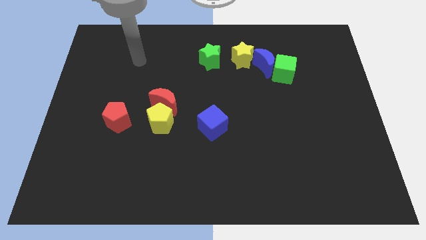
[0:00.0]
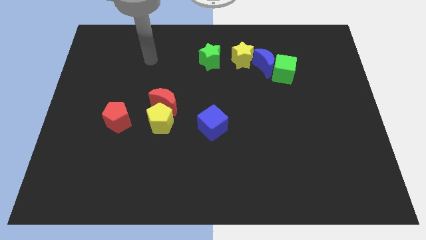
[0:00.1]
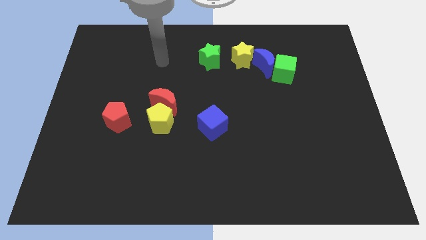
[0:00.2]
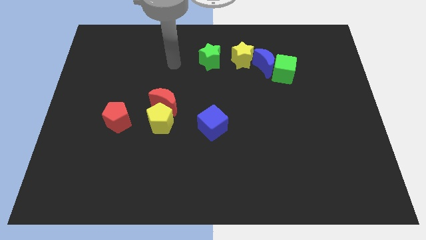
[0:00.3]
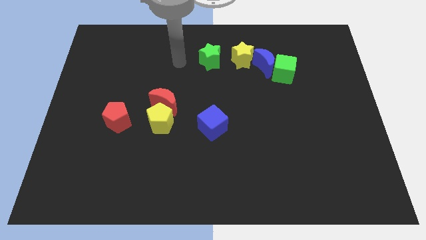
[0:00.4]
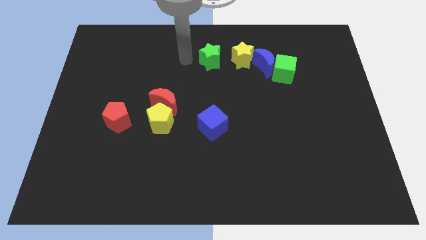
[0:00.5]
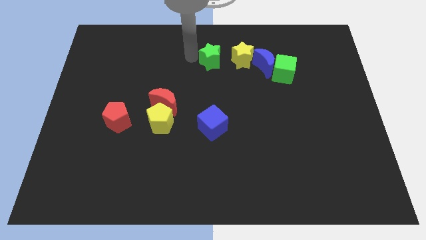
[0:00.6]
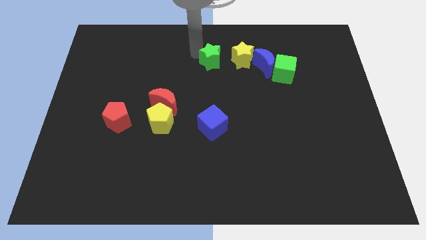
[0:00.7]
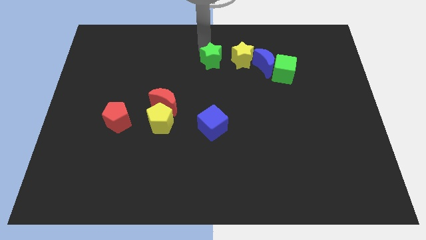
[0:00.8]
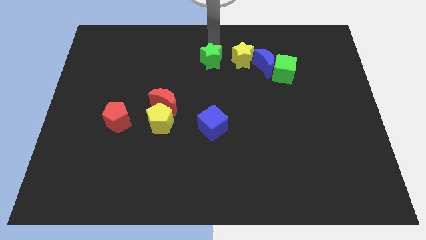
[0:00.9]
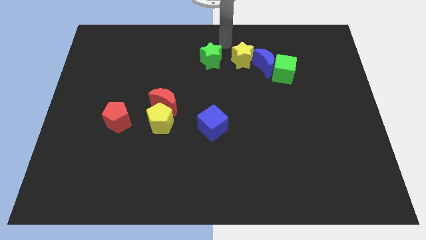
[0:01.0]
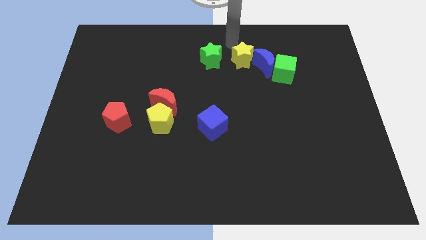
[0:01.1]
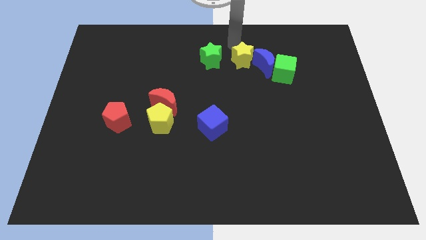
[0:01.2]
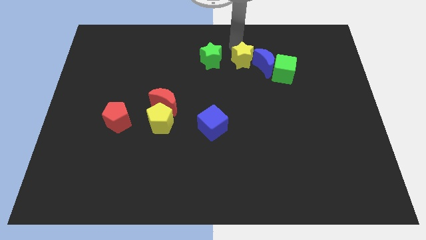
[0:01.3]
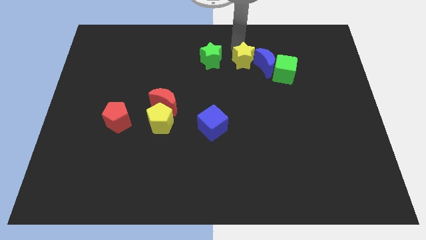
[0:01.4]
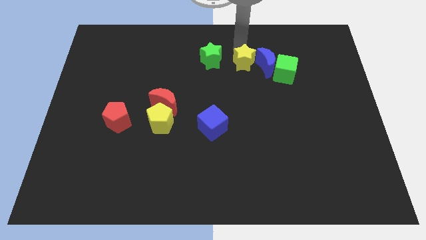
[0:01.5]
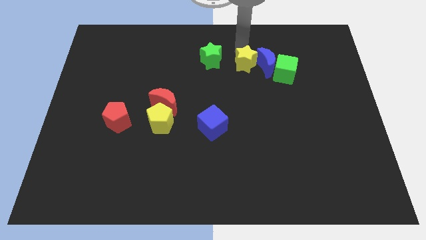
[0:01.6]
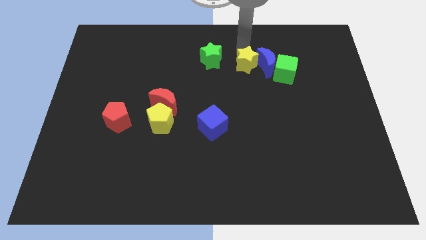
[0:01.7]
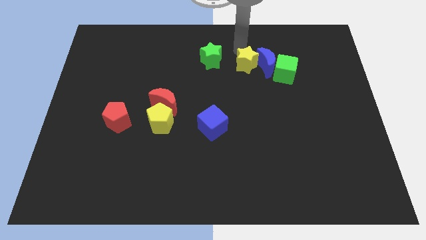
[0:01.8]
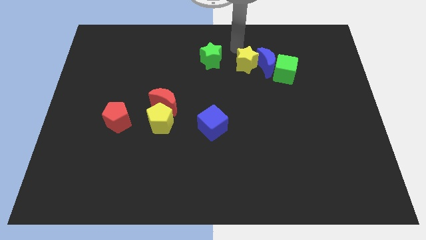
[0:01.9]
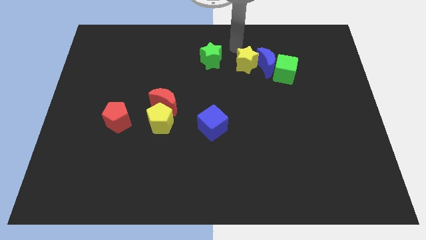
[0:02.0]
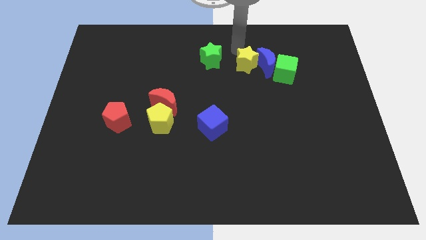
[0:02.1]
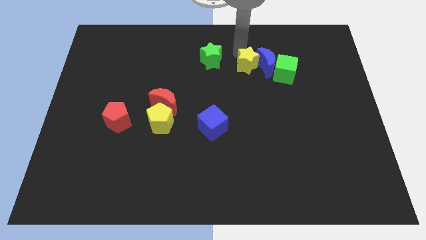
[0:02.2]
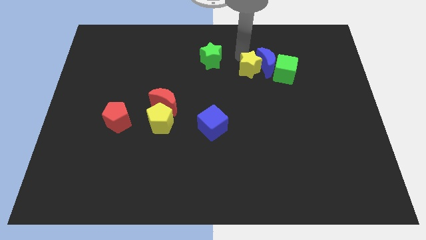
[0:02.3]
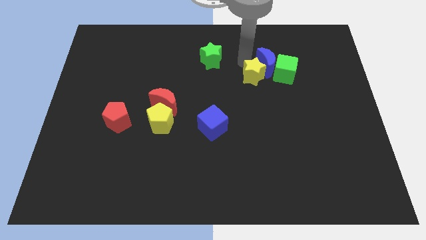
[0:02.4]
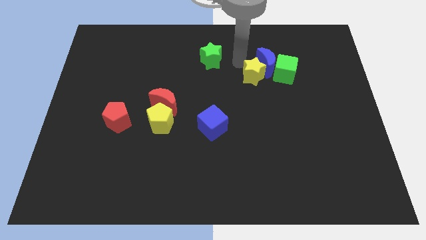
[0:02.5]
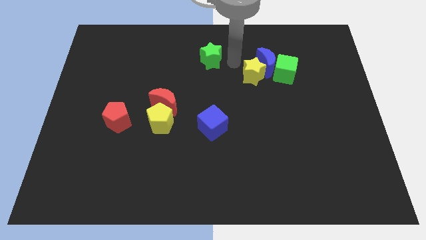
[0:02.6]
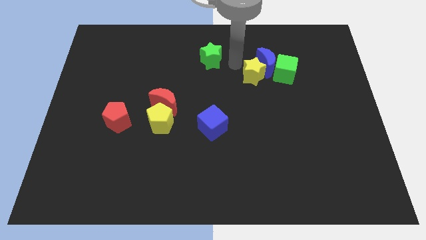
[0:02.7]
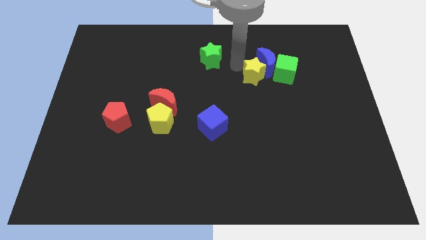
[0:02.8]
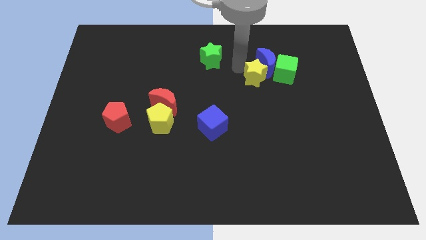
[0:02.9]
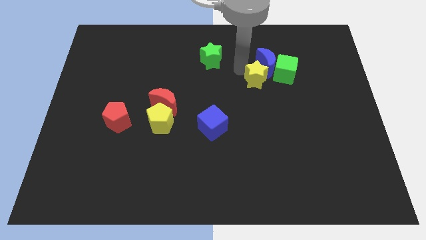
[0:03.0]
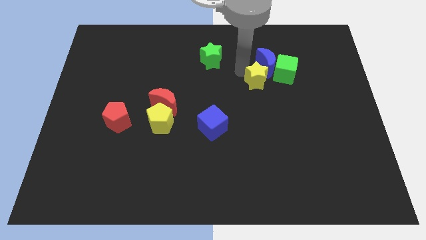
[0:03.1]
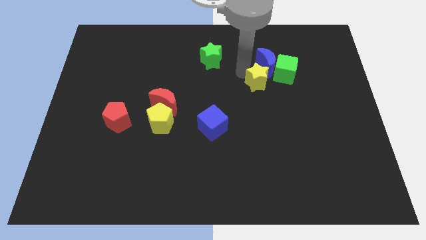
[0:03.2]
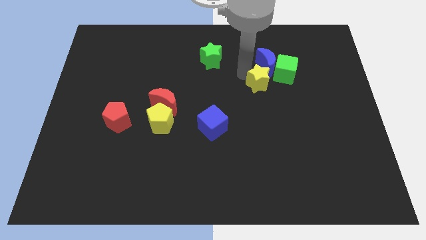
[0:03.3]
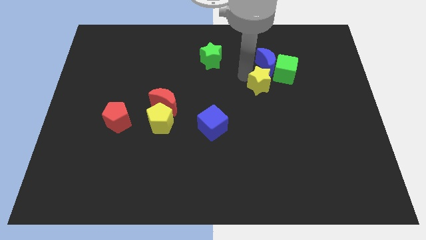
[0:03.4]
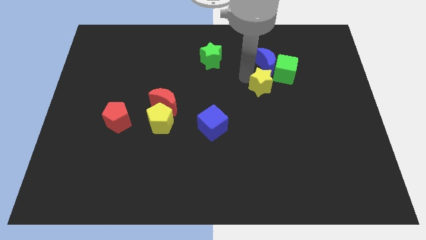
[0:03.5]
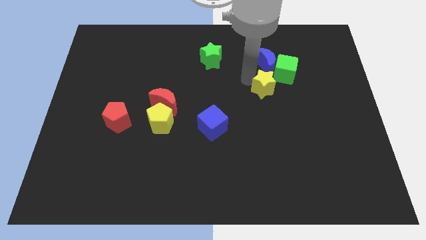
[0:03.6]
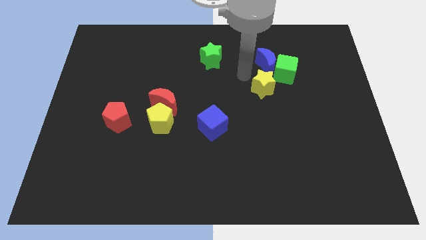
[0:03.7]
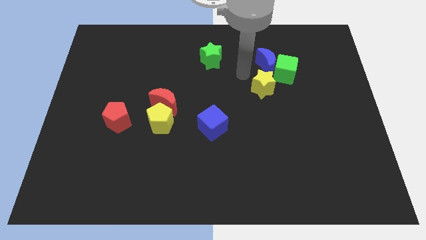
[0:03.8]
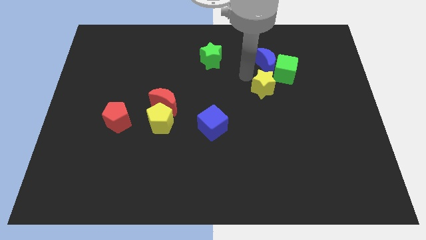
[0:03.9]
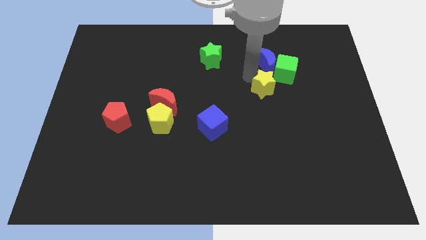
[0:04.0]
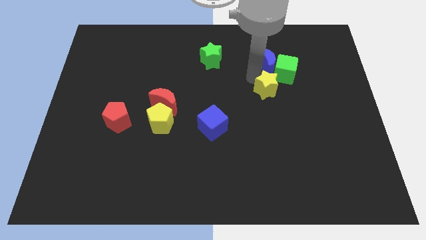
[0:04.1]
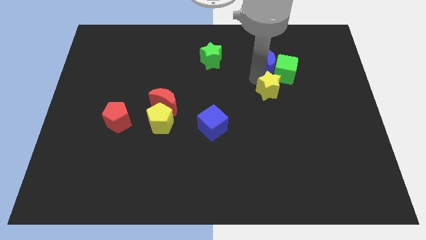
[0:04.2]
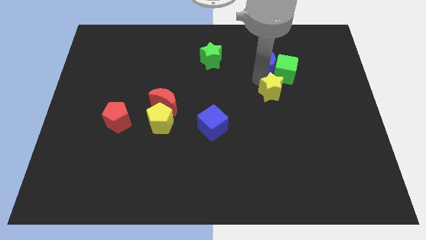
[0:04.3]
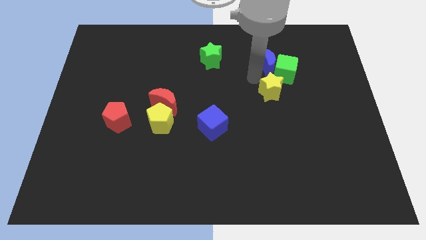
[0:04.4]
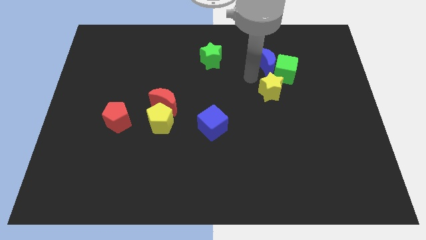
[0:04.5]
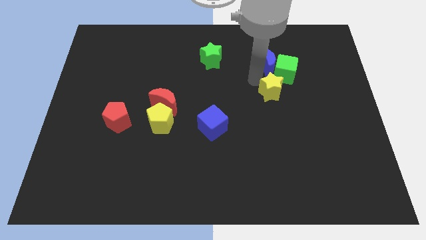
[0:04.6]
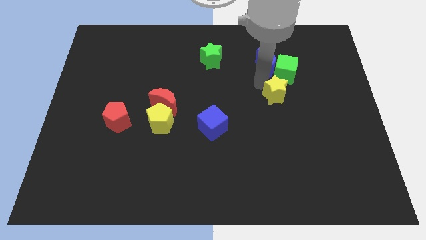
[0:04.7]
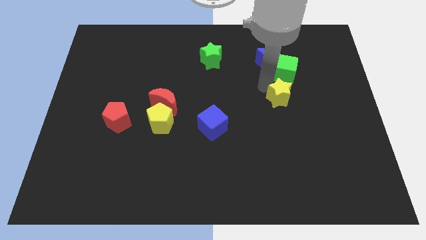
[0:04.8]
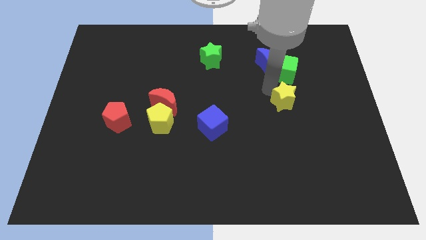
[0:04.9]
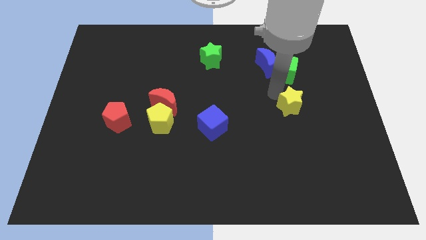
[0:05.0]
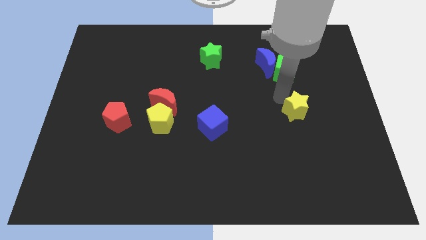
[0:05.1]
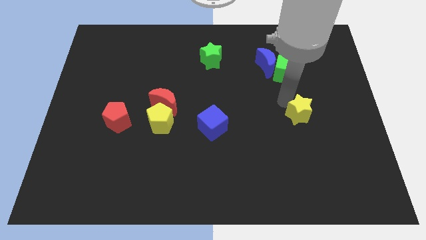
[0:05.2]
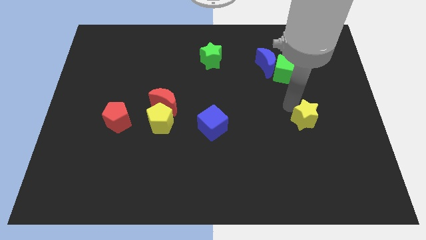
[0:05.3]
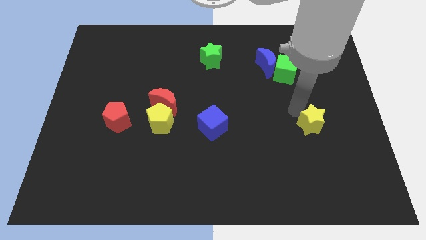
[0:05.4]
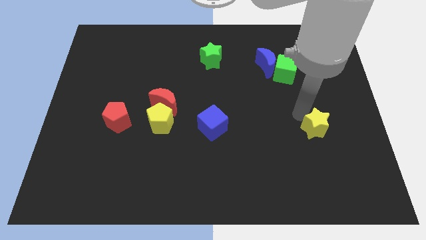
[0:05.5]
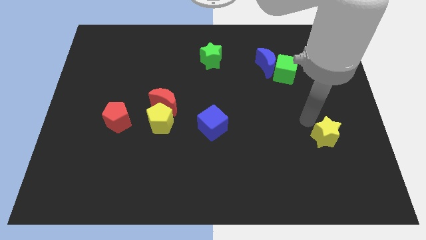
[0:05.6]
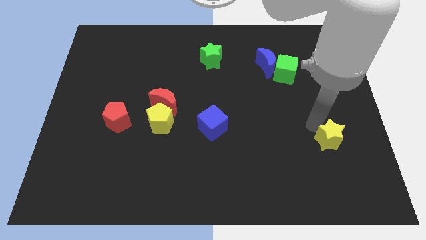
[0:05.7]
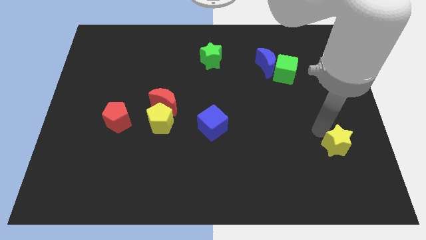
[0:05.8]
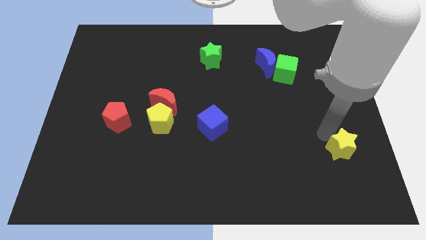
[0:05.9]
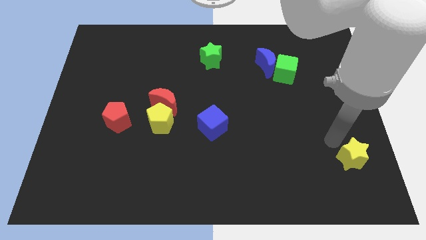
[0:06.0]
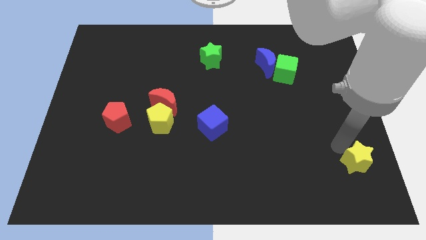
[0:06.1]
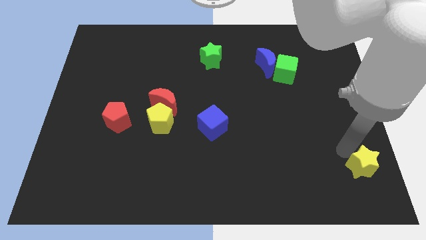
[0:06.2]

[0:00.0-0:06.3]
push the yellow star to the lower right corner
